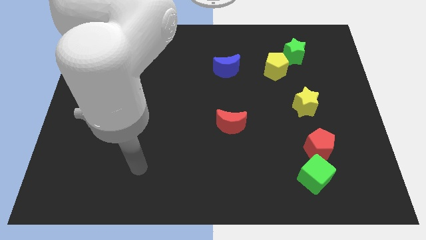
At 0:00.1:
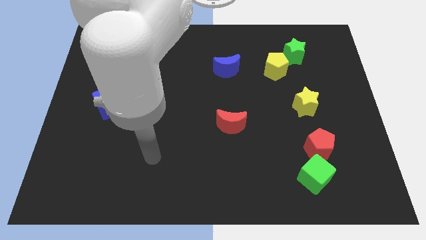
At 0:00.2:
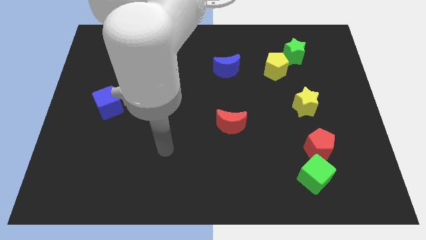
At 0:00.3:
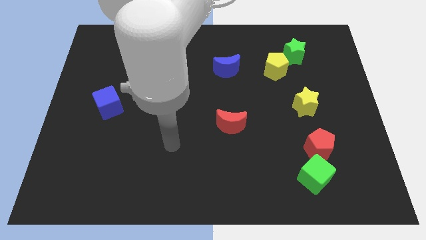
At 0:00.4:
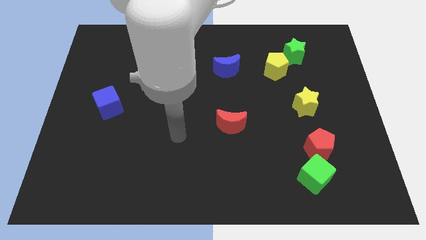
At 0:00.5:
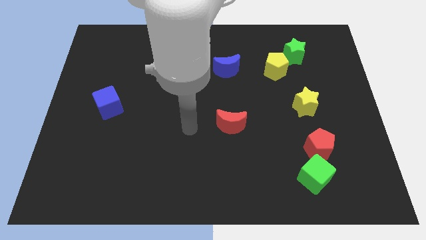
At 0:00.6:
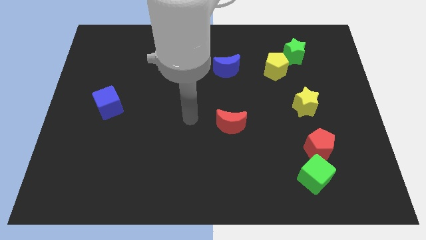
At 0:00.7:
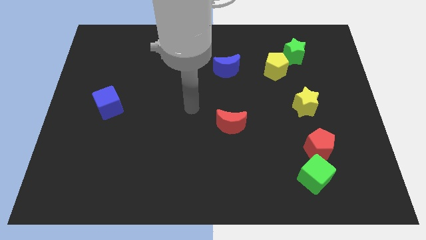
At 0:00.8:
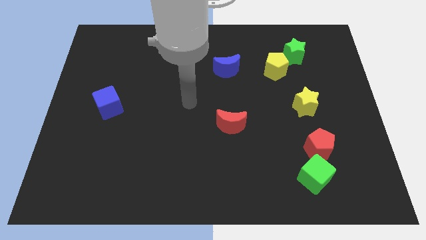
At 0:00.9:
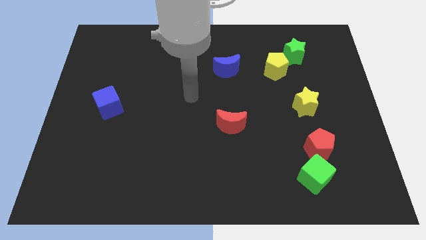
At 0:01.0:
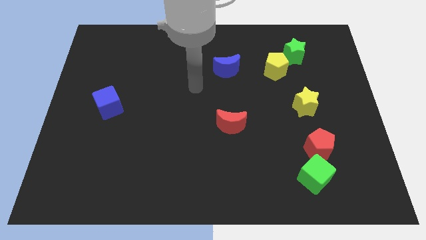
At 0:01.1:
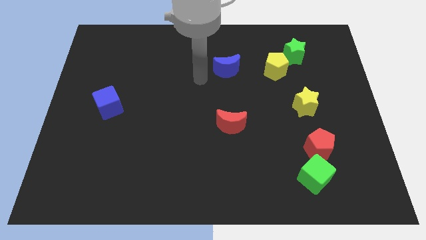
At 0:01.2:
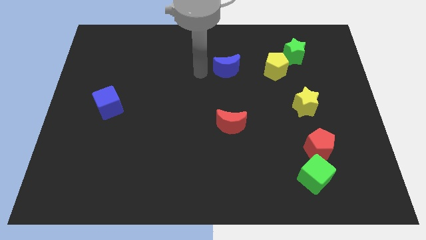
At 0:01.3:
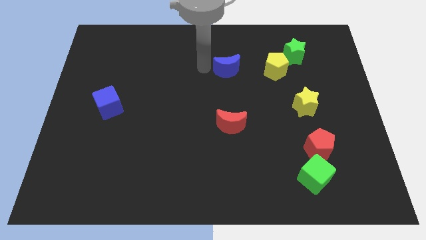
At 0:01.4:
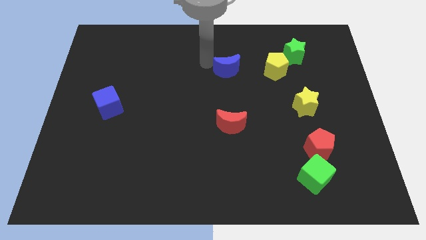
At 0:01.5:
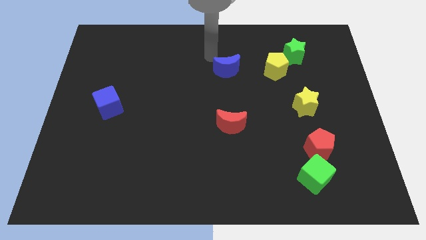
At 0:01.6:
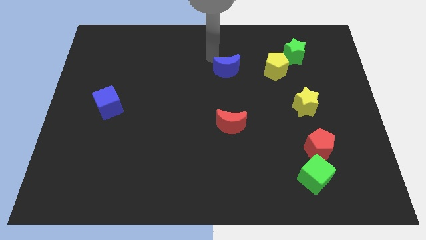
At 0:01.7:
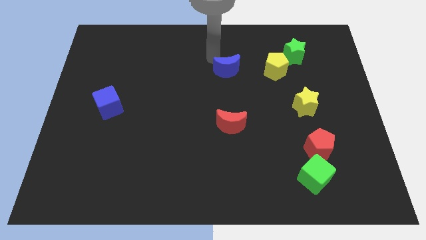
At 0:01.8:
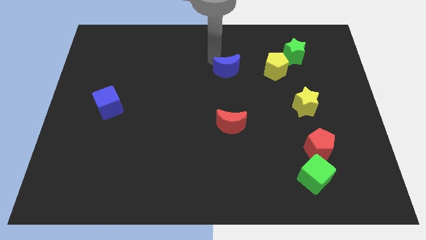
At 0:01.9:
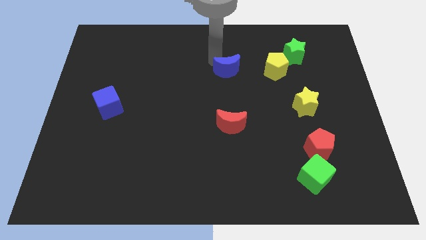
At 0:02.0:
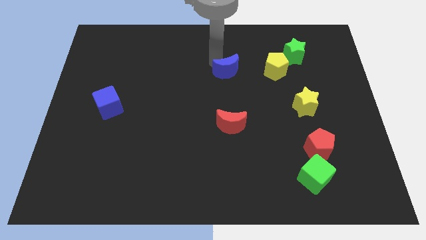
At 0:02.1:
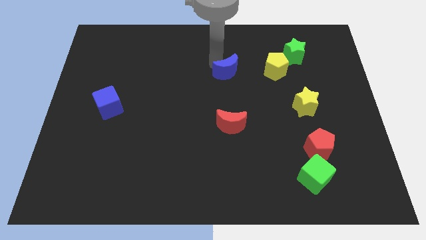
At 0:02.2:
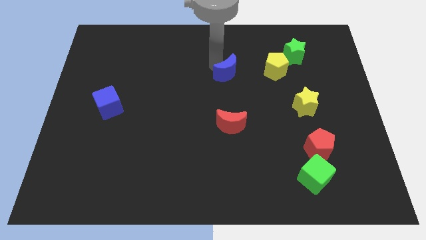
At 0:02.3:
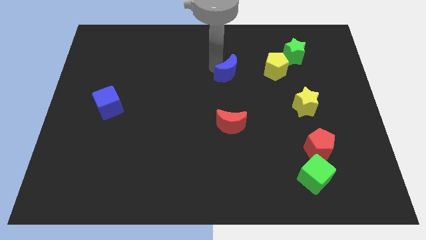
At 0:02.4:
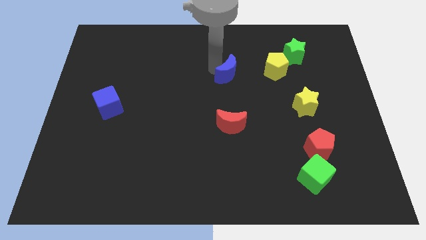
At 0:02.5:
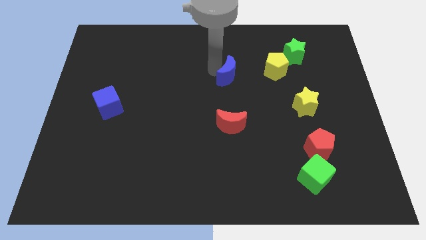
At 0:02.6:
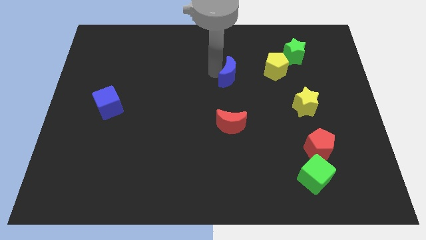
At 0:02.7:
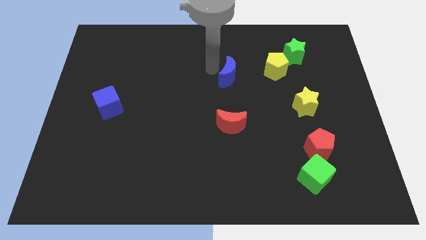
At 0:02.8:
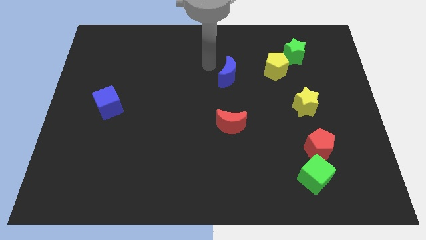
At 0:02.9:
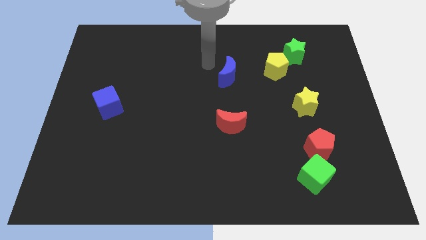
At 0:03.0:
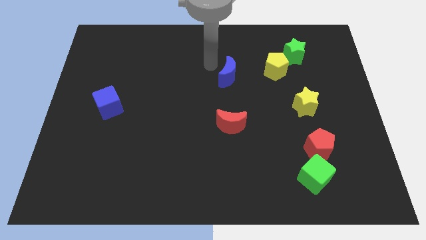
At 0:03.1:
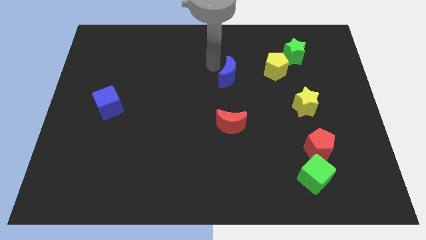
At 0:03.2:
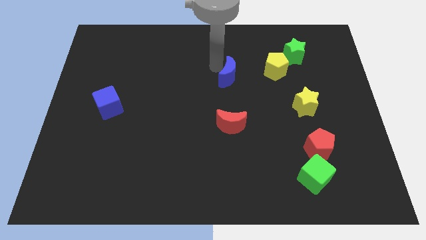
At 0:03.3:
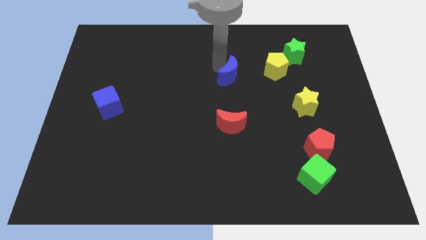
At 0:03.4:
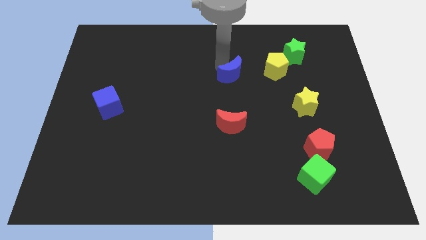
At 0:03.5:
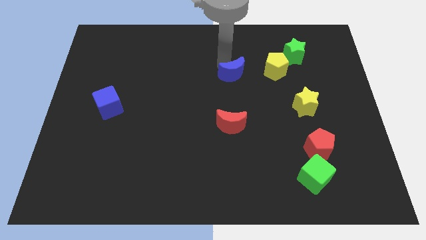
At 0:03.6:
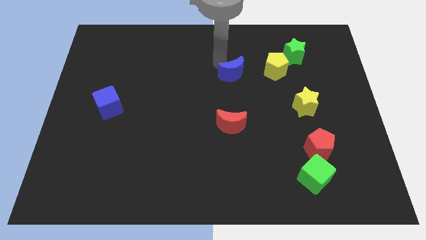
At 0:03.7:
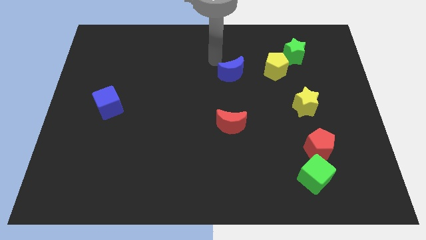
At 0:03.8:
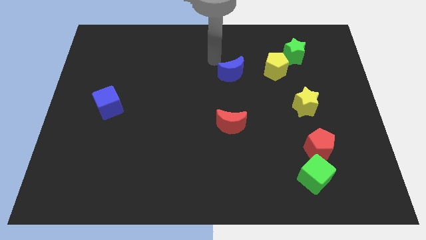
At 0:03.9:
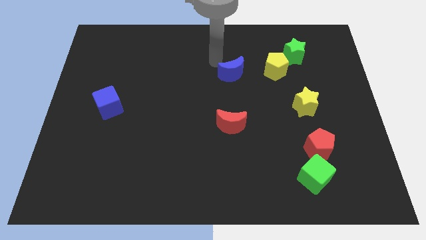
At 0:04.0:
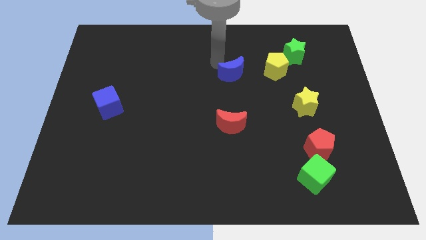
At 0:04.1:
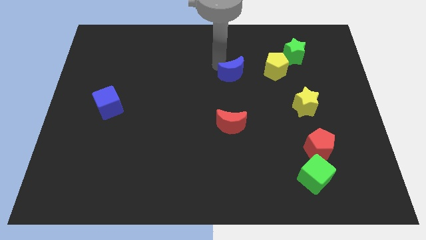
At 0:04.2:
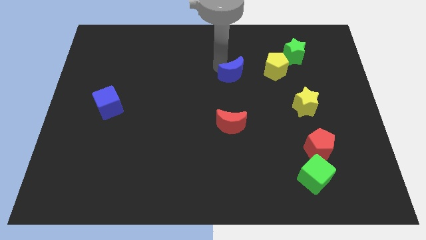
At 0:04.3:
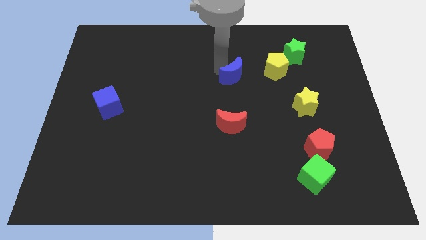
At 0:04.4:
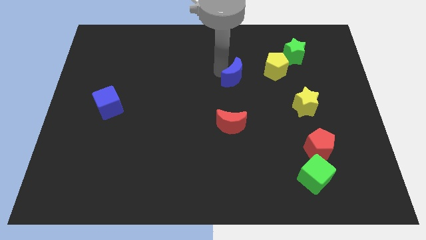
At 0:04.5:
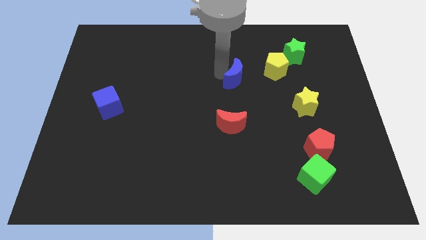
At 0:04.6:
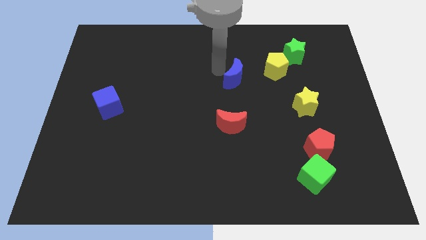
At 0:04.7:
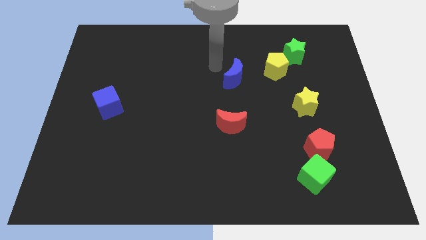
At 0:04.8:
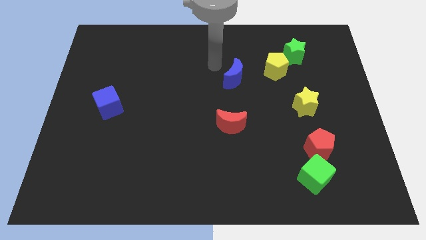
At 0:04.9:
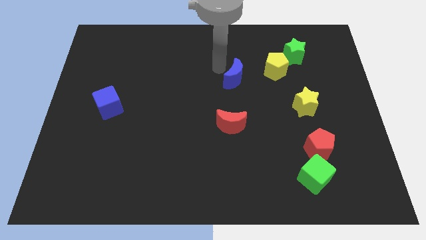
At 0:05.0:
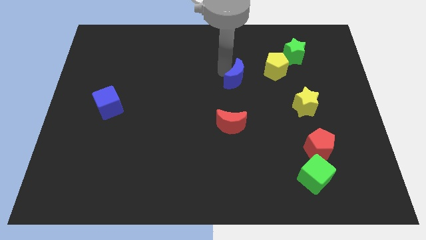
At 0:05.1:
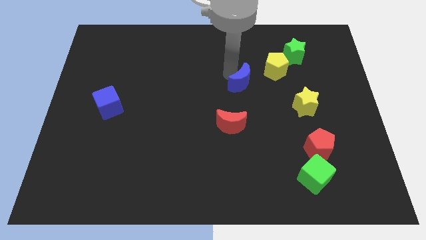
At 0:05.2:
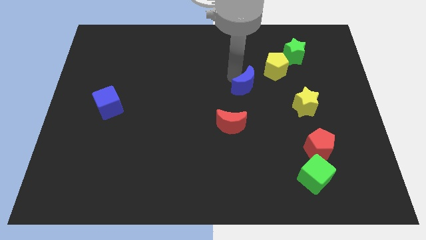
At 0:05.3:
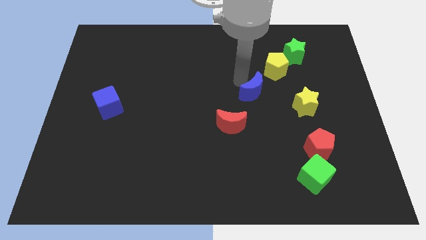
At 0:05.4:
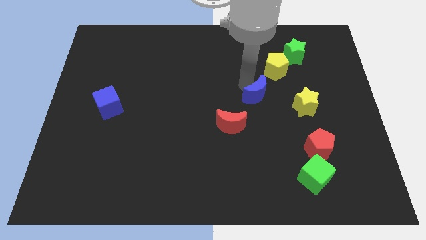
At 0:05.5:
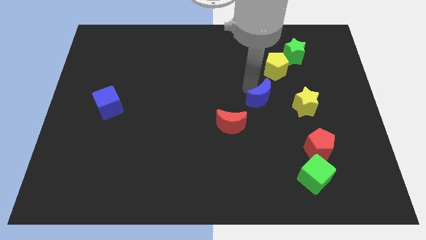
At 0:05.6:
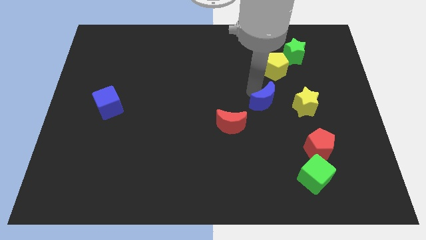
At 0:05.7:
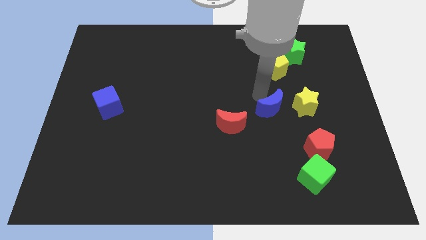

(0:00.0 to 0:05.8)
push the blue moon to the bottom left of the yellow star

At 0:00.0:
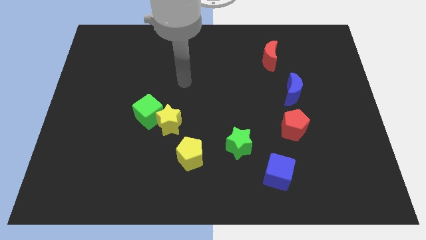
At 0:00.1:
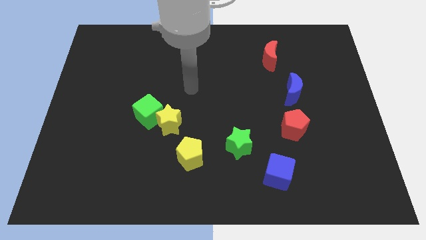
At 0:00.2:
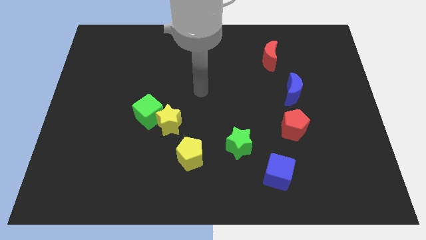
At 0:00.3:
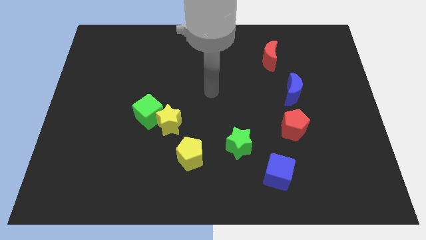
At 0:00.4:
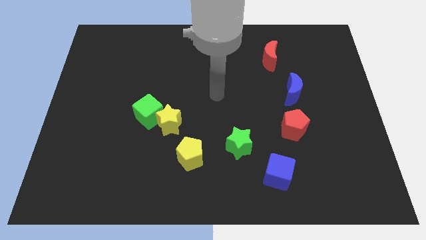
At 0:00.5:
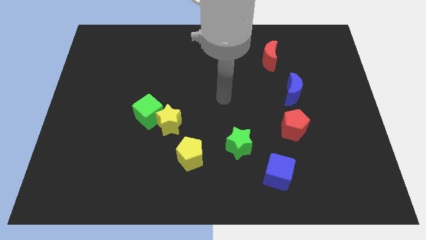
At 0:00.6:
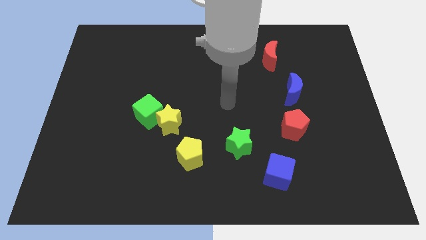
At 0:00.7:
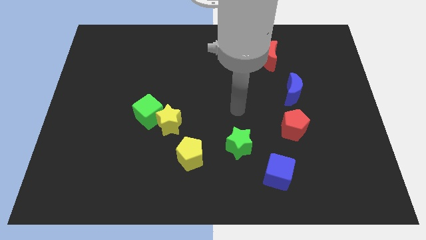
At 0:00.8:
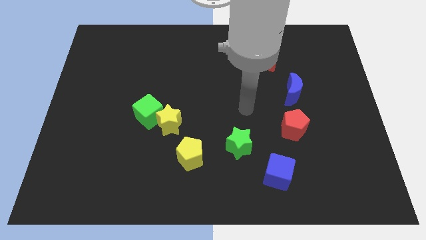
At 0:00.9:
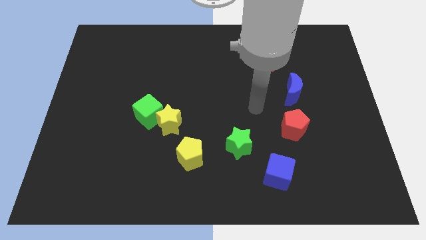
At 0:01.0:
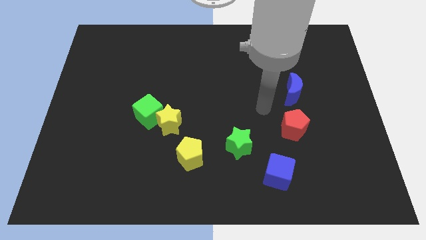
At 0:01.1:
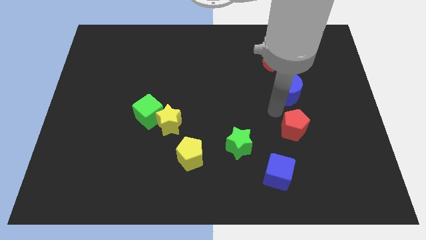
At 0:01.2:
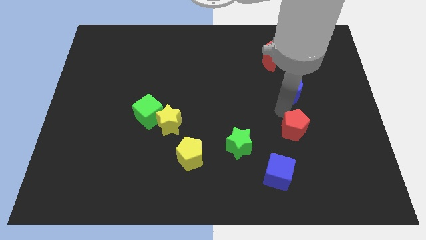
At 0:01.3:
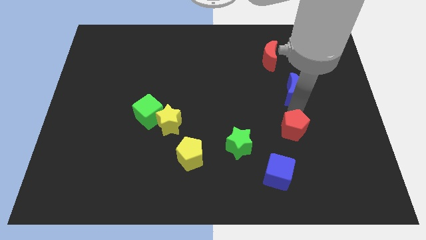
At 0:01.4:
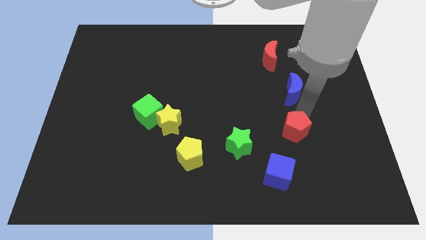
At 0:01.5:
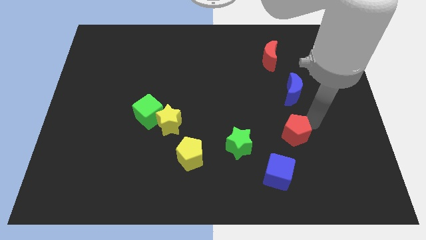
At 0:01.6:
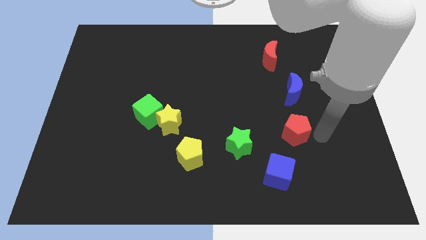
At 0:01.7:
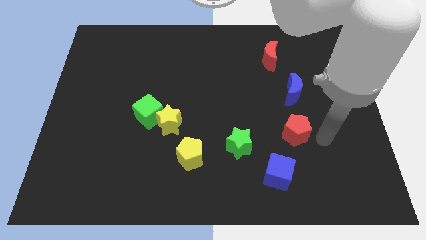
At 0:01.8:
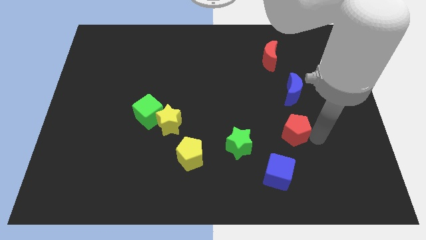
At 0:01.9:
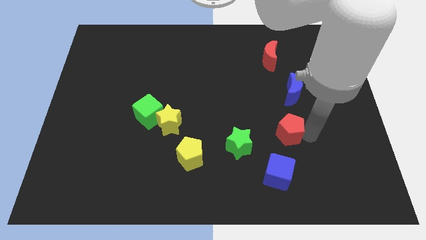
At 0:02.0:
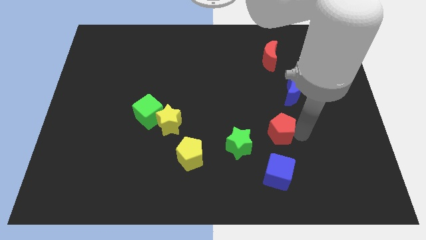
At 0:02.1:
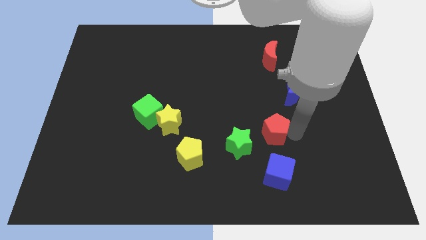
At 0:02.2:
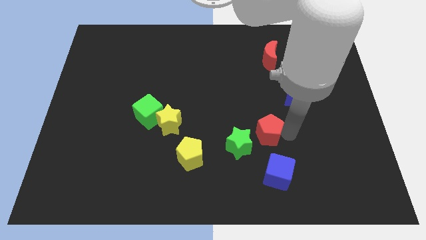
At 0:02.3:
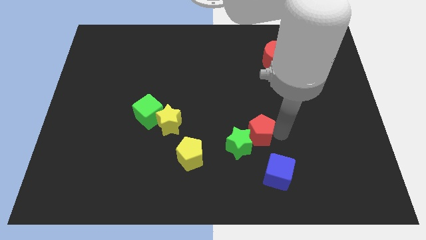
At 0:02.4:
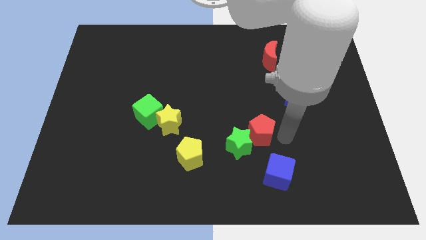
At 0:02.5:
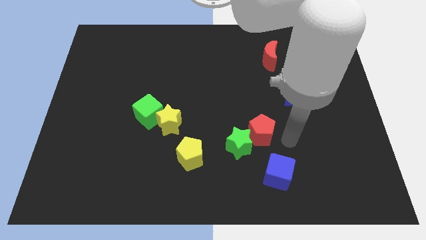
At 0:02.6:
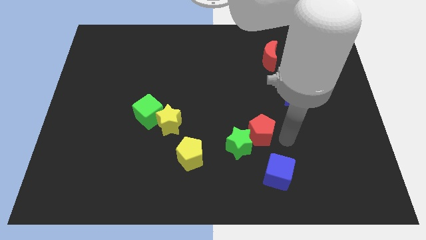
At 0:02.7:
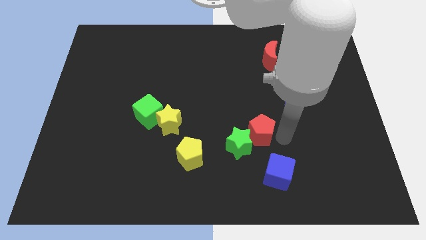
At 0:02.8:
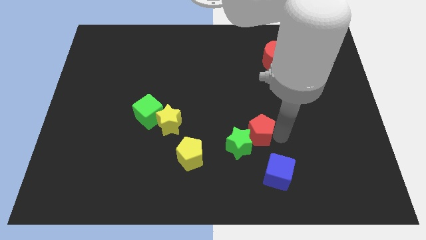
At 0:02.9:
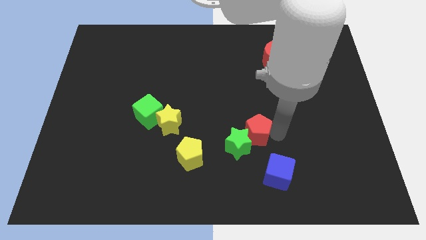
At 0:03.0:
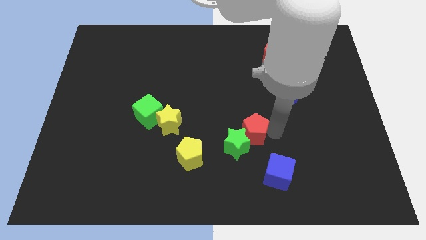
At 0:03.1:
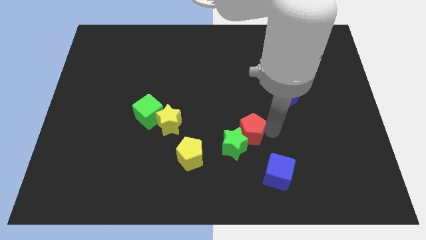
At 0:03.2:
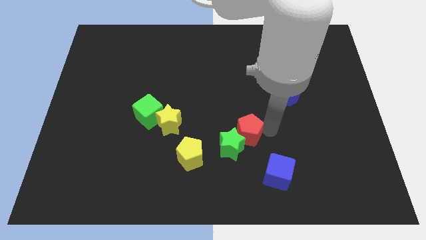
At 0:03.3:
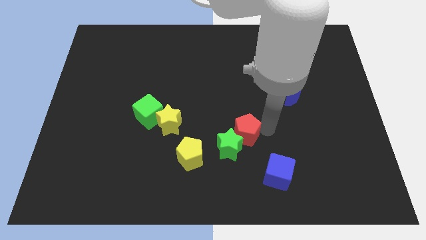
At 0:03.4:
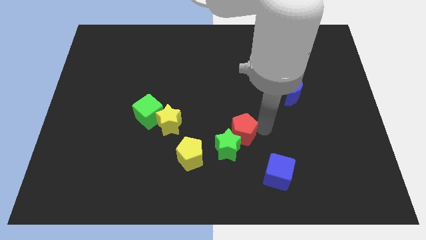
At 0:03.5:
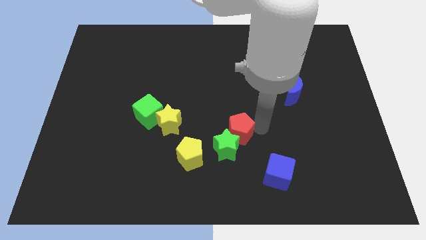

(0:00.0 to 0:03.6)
slide the red pentagon to the right side of the yellow star
